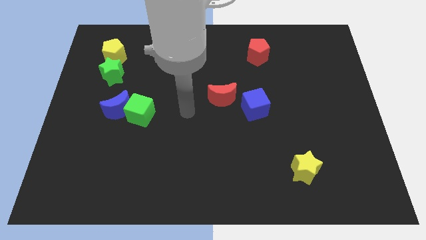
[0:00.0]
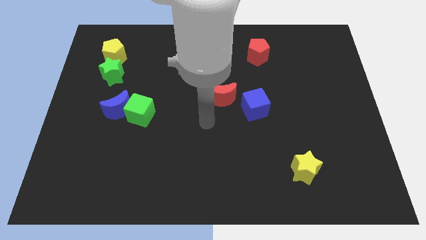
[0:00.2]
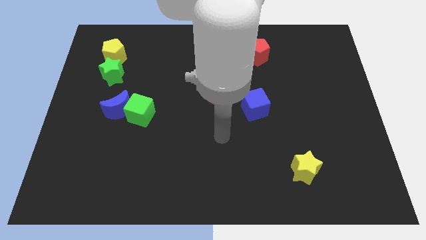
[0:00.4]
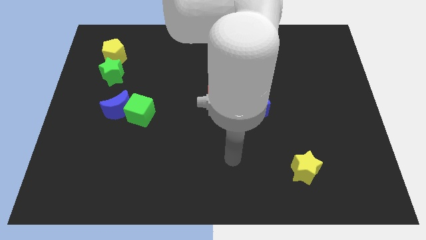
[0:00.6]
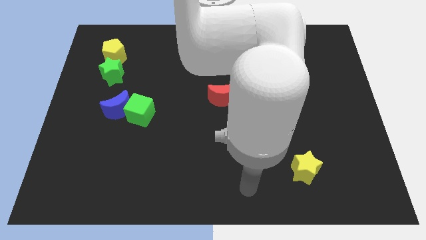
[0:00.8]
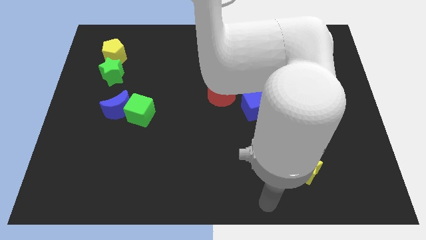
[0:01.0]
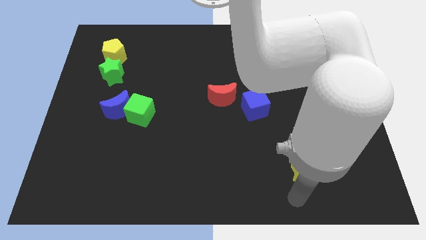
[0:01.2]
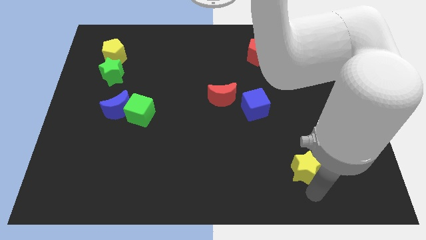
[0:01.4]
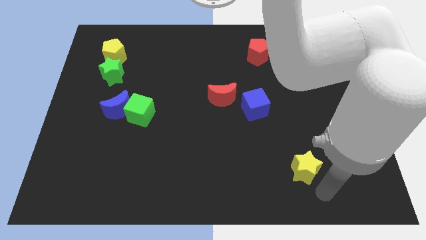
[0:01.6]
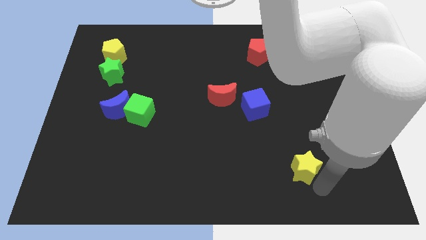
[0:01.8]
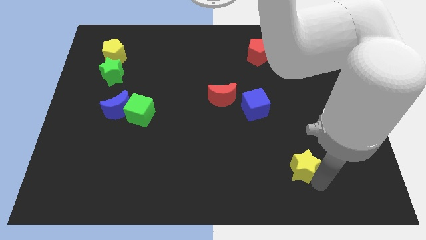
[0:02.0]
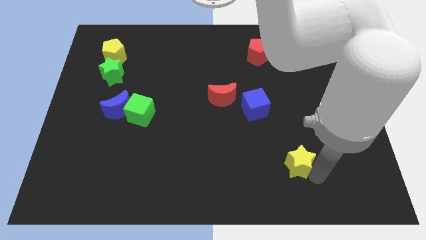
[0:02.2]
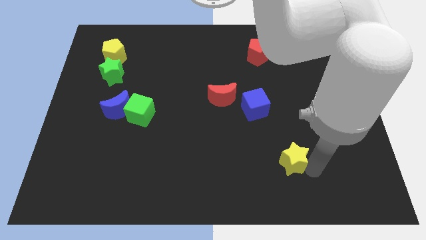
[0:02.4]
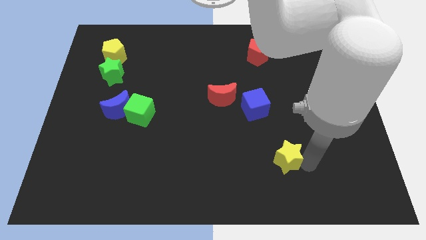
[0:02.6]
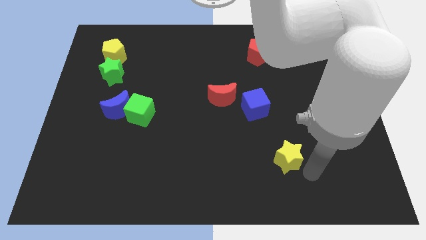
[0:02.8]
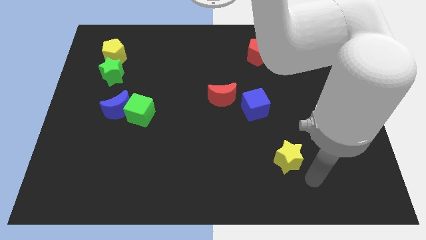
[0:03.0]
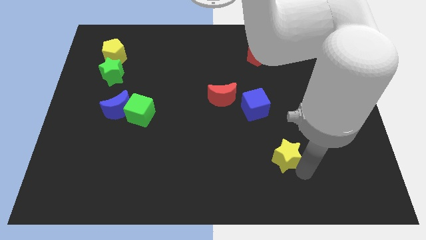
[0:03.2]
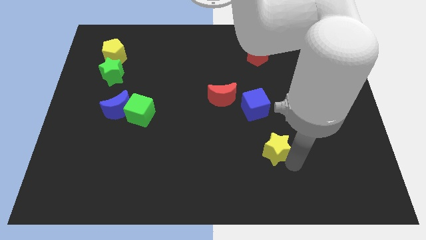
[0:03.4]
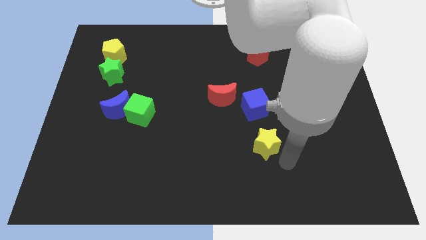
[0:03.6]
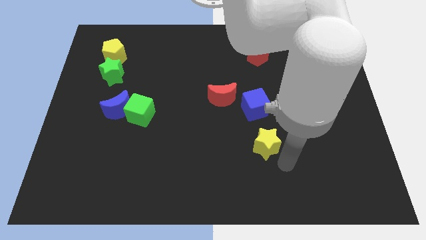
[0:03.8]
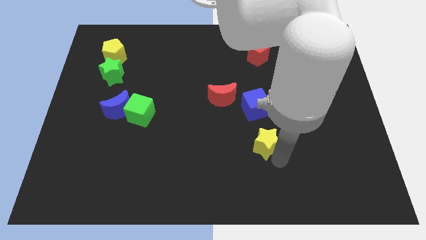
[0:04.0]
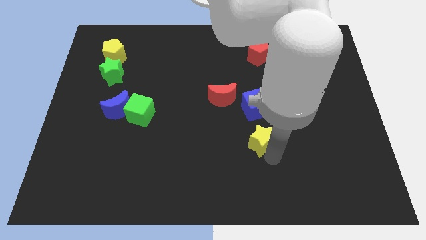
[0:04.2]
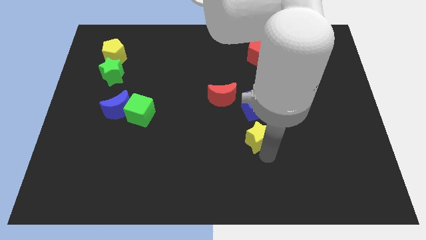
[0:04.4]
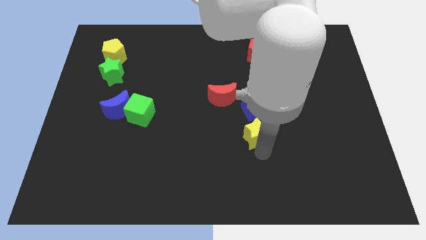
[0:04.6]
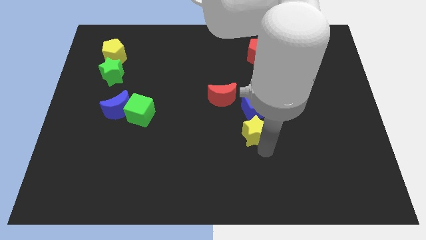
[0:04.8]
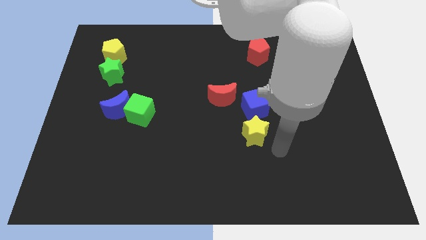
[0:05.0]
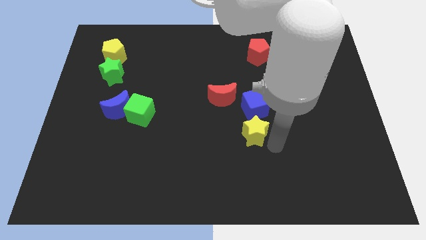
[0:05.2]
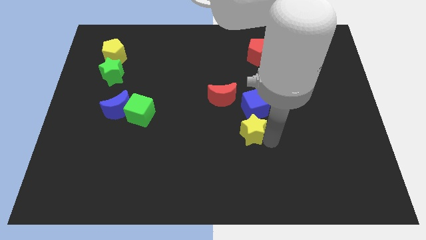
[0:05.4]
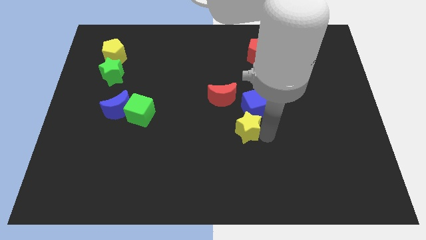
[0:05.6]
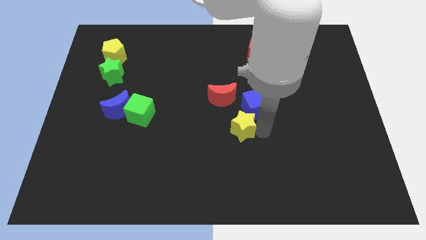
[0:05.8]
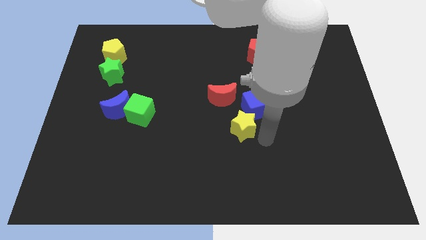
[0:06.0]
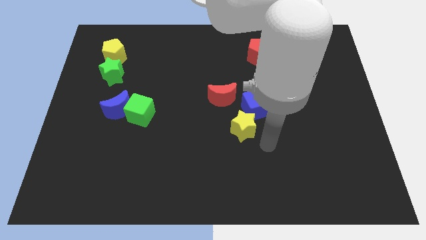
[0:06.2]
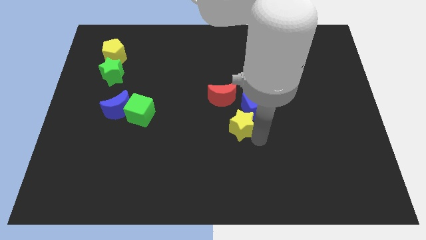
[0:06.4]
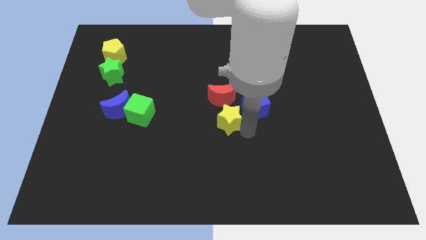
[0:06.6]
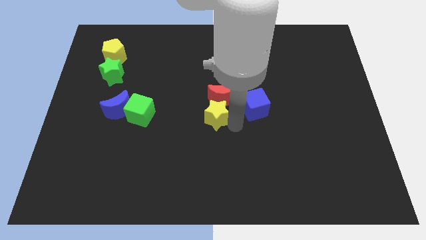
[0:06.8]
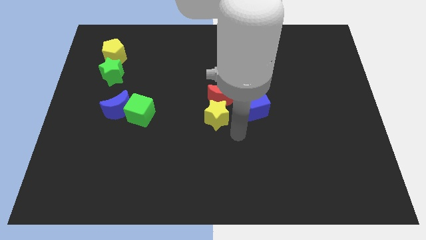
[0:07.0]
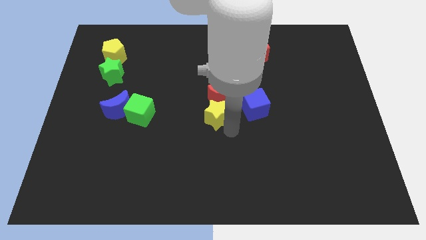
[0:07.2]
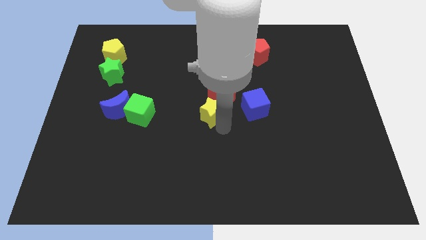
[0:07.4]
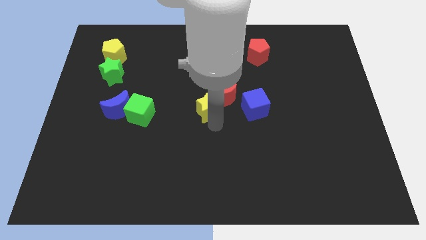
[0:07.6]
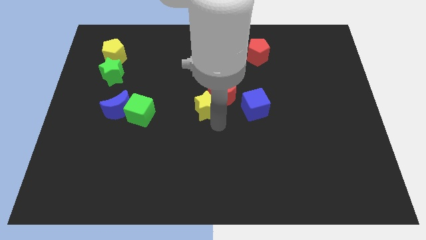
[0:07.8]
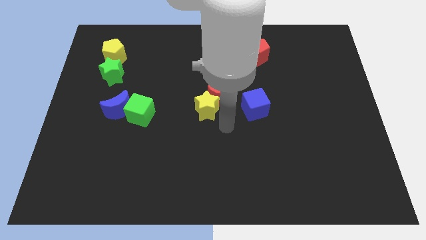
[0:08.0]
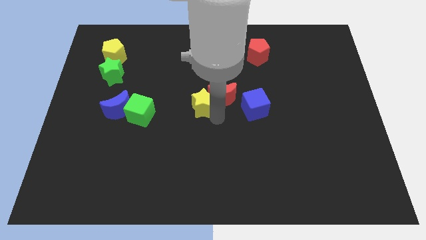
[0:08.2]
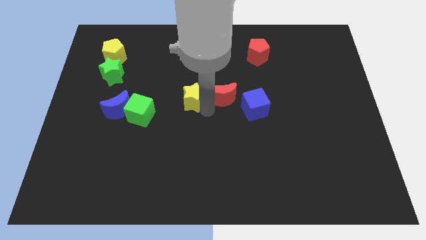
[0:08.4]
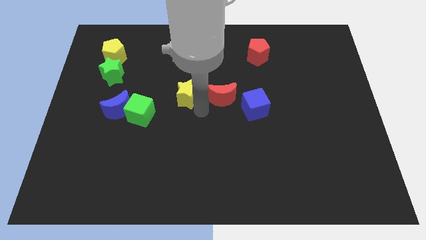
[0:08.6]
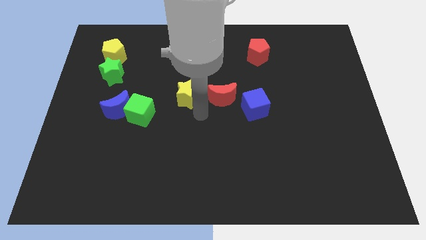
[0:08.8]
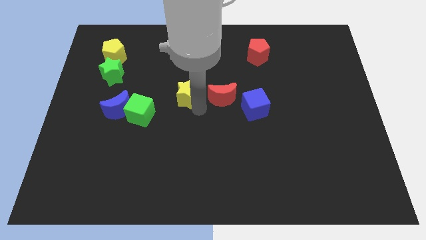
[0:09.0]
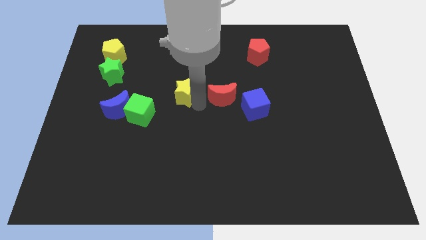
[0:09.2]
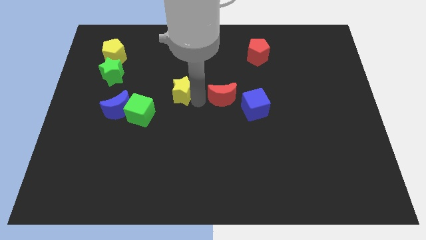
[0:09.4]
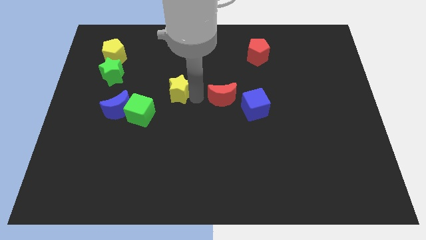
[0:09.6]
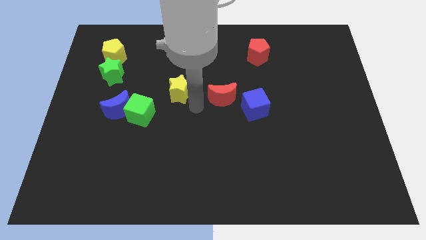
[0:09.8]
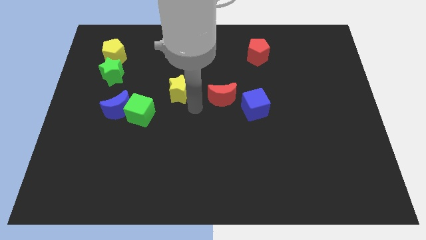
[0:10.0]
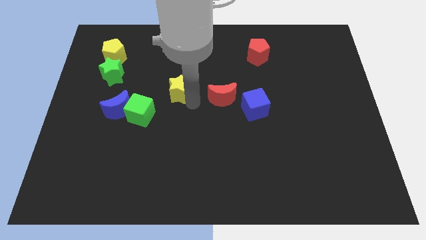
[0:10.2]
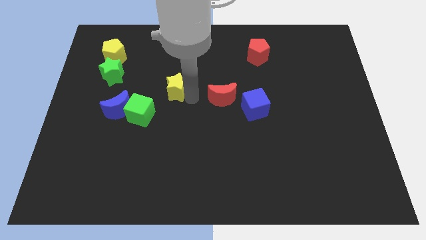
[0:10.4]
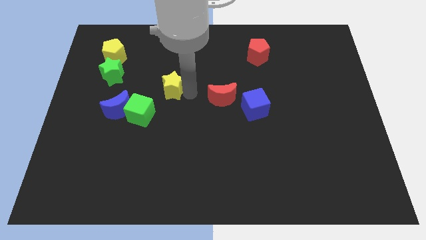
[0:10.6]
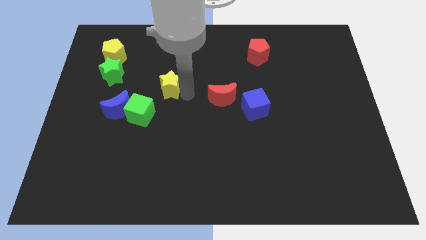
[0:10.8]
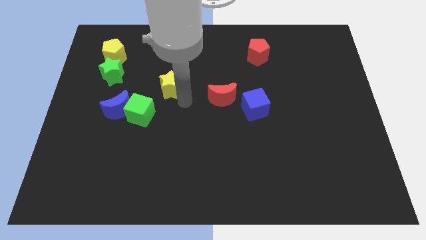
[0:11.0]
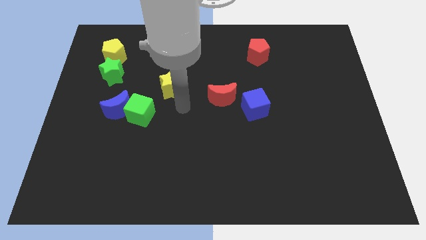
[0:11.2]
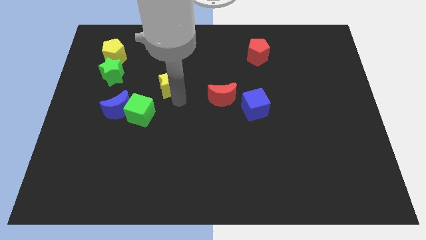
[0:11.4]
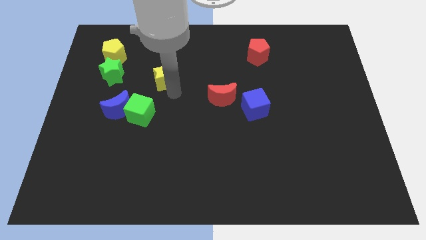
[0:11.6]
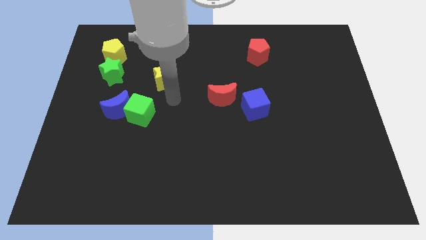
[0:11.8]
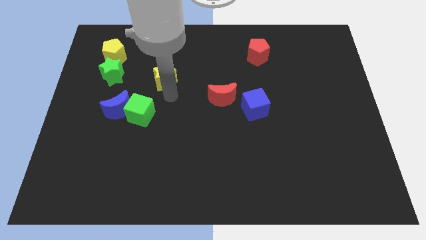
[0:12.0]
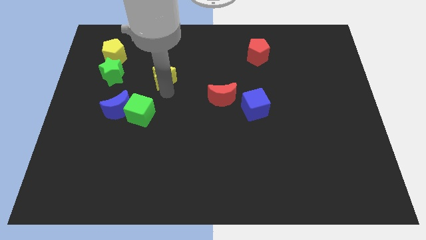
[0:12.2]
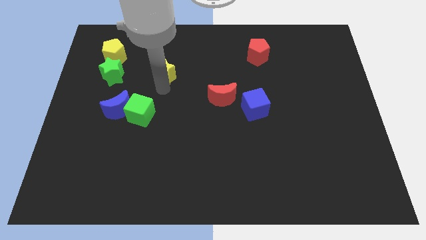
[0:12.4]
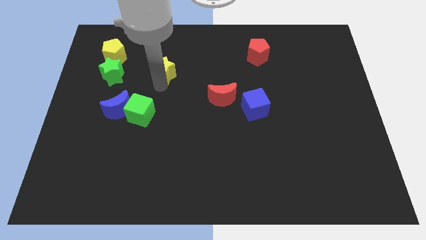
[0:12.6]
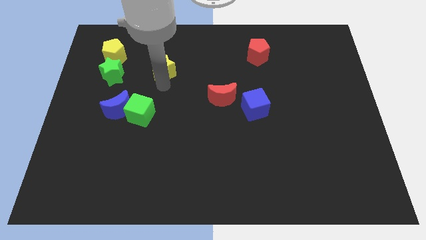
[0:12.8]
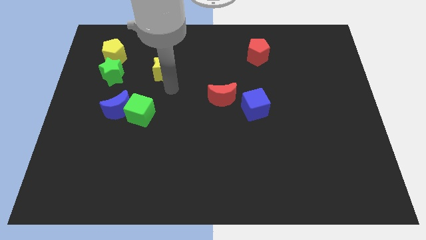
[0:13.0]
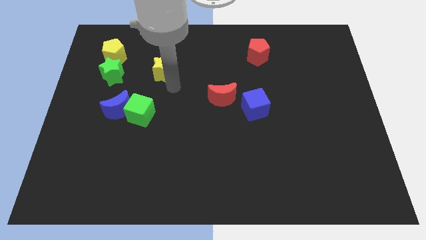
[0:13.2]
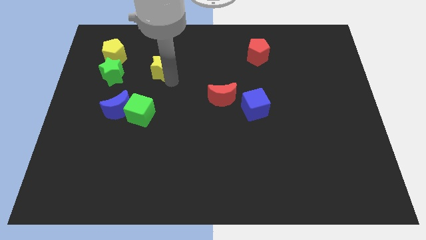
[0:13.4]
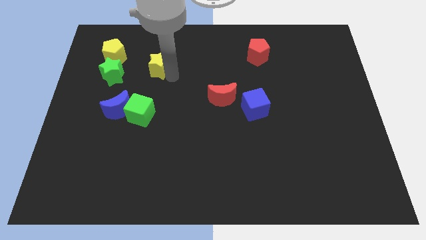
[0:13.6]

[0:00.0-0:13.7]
put the yellow star to the right of the yellow pentagon
